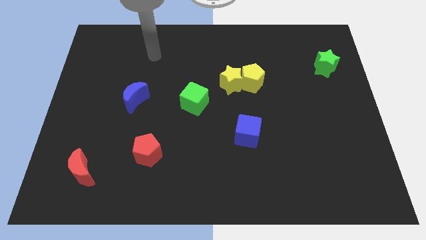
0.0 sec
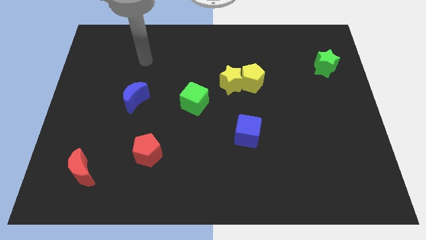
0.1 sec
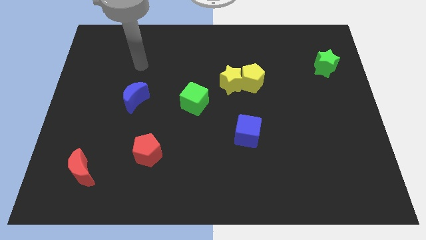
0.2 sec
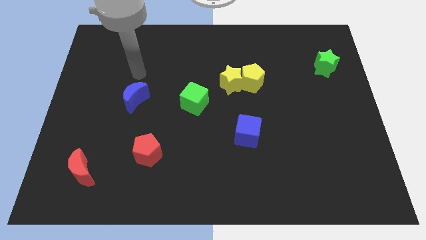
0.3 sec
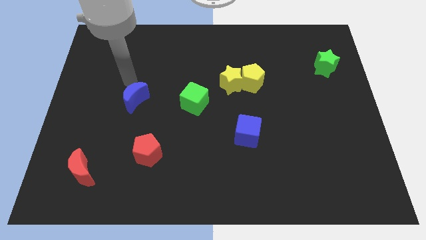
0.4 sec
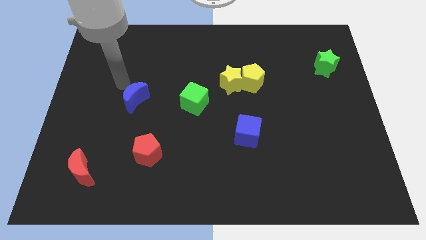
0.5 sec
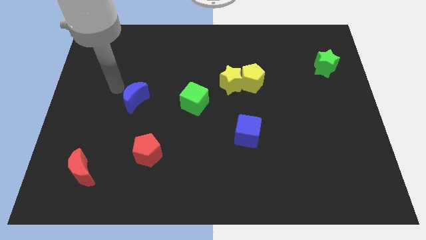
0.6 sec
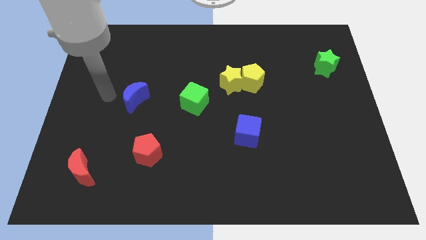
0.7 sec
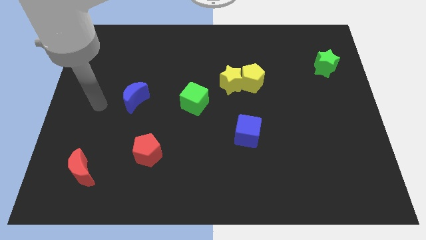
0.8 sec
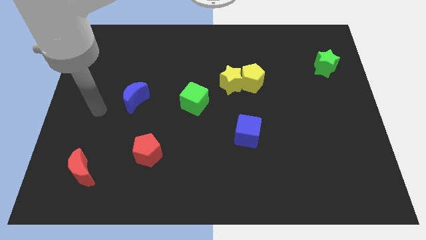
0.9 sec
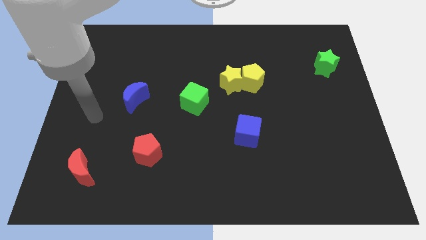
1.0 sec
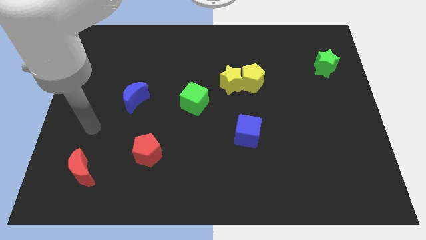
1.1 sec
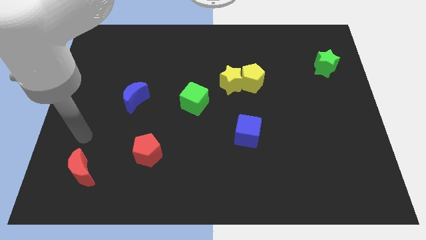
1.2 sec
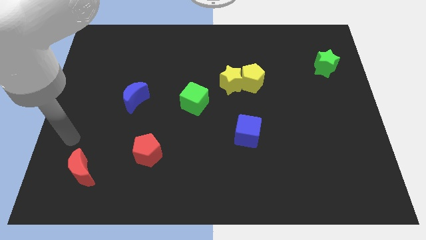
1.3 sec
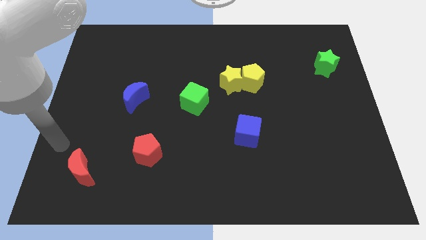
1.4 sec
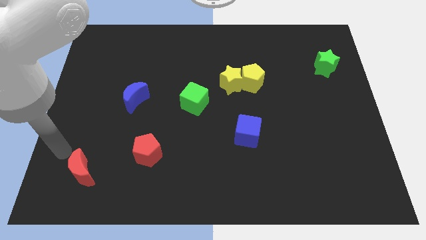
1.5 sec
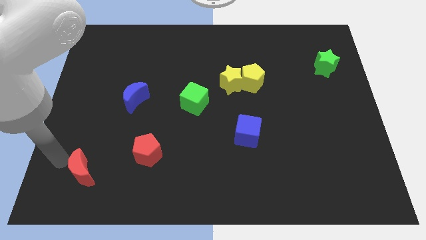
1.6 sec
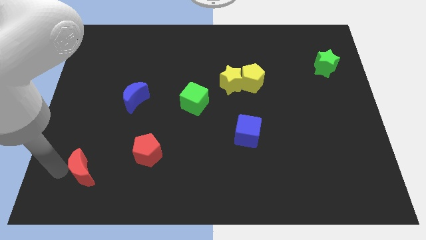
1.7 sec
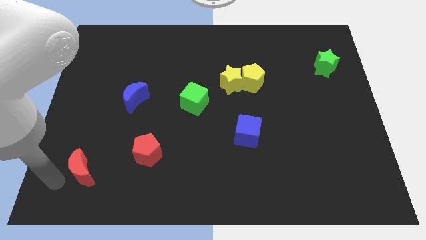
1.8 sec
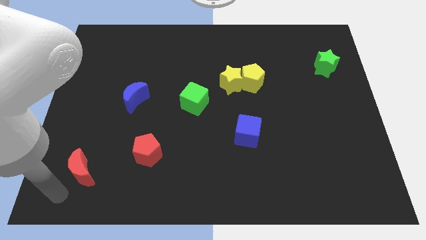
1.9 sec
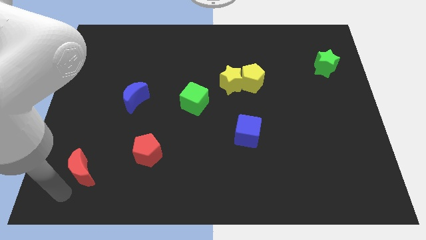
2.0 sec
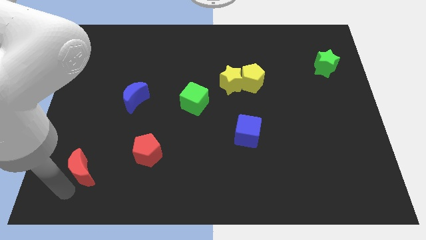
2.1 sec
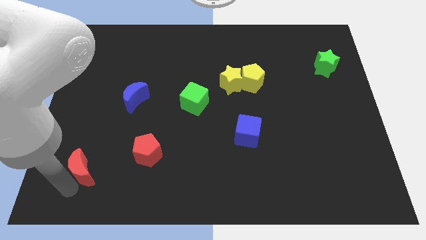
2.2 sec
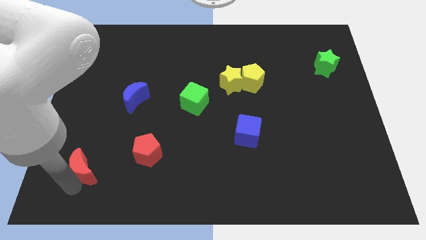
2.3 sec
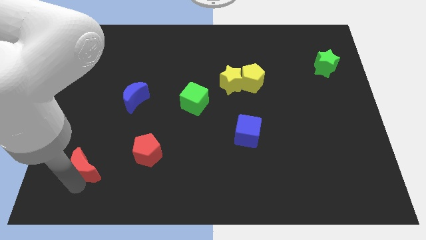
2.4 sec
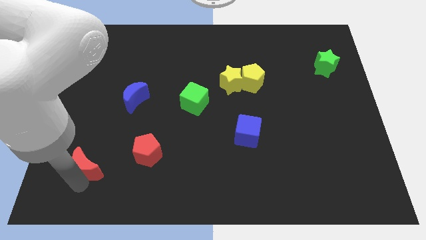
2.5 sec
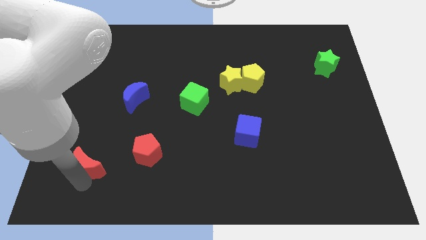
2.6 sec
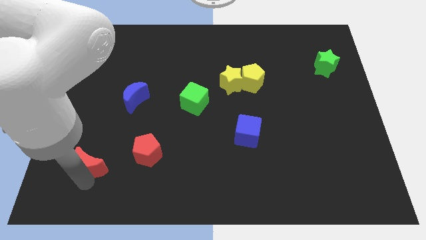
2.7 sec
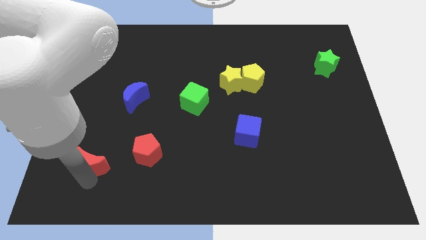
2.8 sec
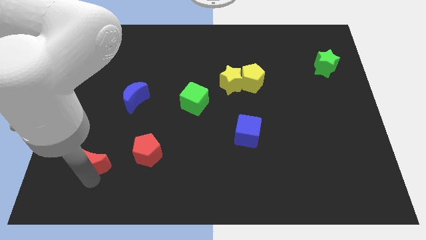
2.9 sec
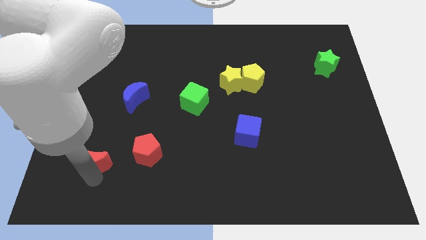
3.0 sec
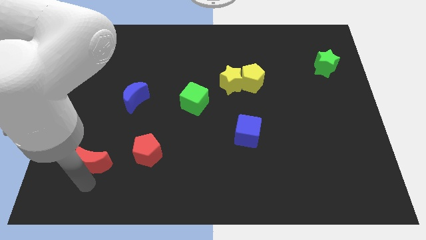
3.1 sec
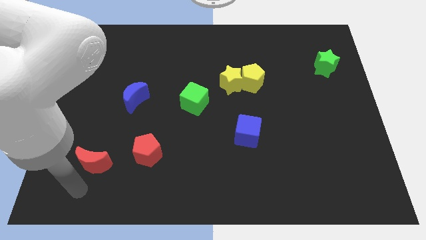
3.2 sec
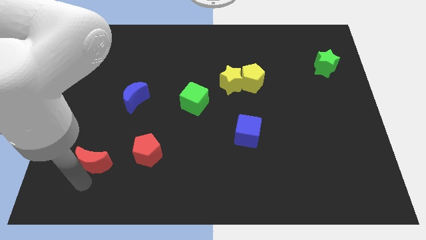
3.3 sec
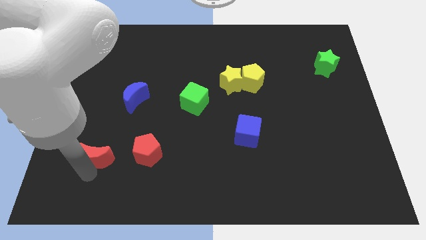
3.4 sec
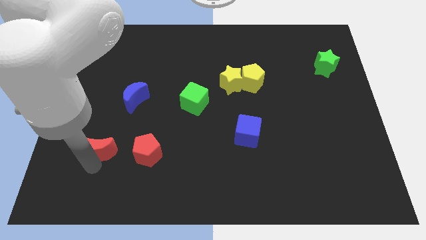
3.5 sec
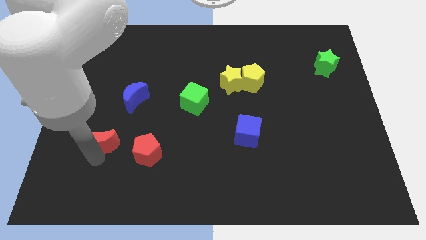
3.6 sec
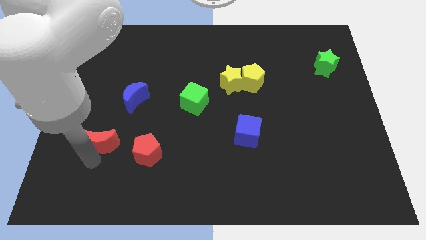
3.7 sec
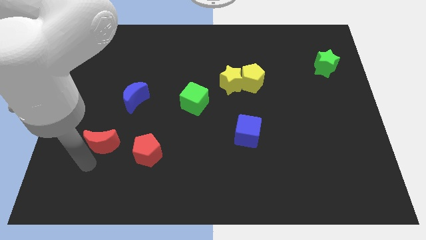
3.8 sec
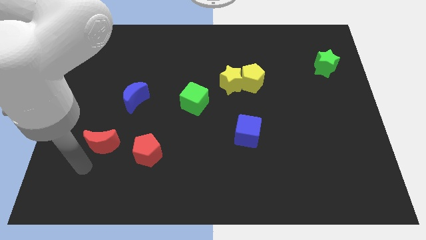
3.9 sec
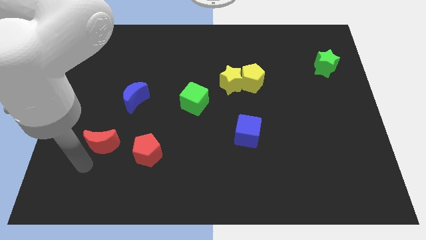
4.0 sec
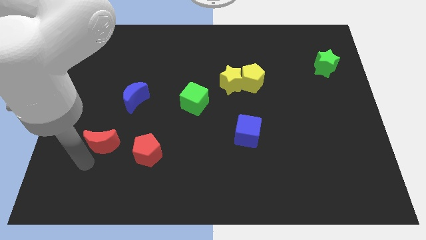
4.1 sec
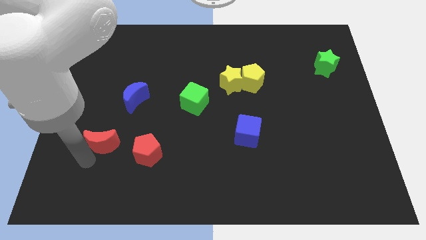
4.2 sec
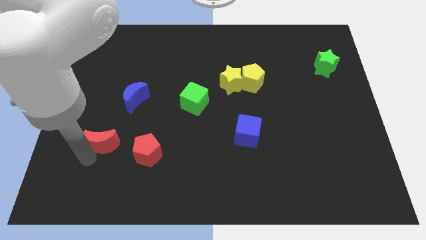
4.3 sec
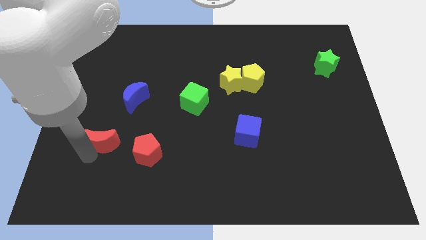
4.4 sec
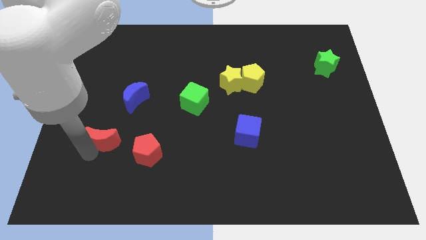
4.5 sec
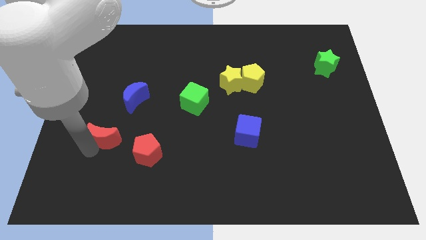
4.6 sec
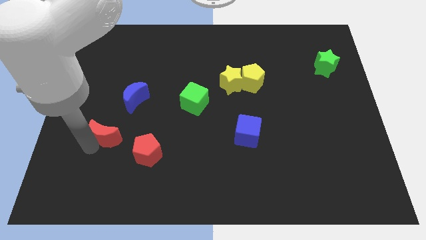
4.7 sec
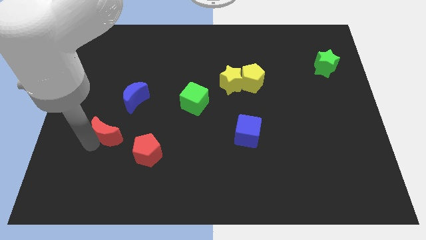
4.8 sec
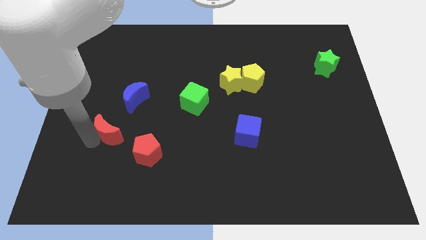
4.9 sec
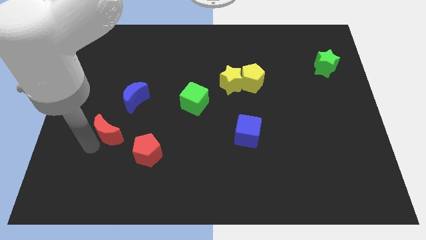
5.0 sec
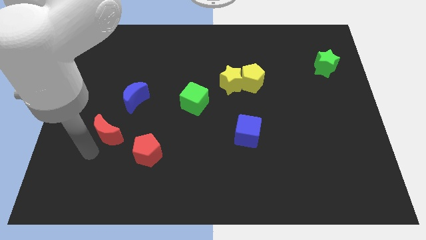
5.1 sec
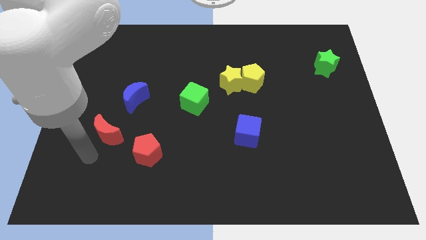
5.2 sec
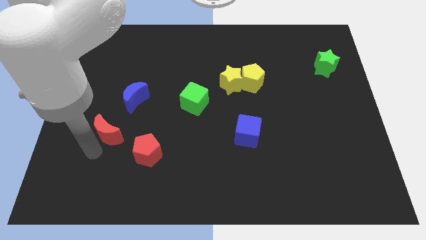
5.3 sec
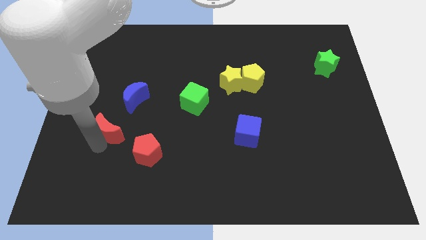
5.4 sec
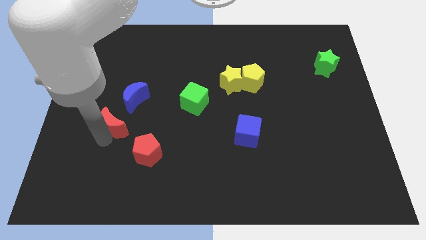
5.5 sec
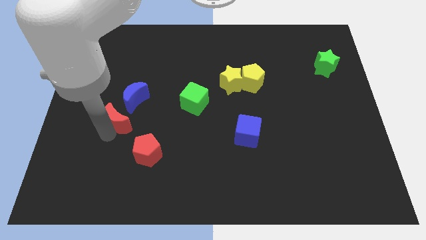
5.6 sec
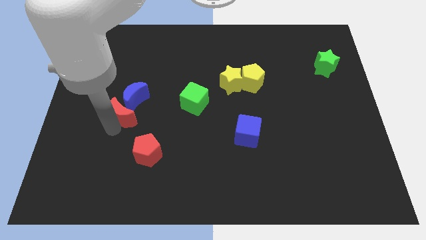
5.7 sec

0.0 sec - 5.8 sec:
push the red moon to the blue moon

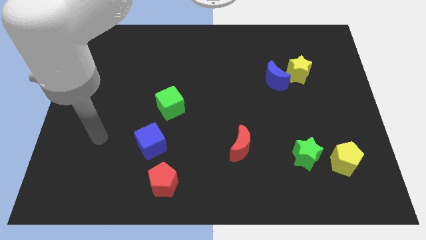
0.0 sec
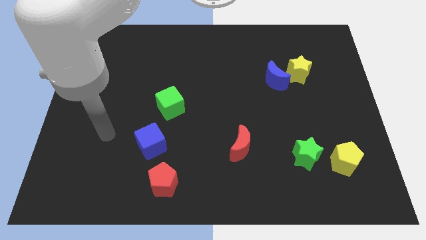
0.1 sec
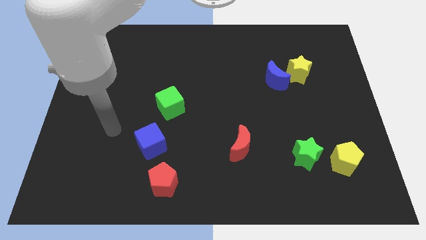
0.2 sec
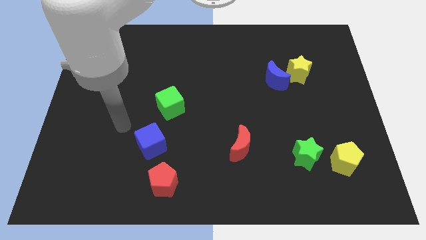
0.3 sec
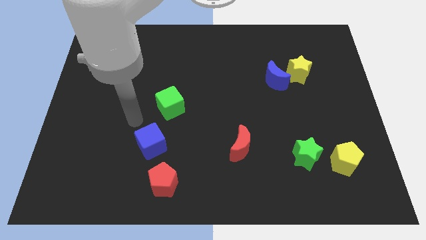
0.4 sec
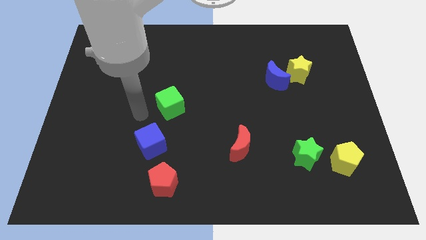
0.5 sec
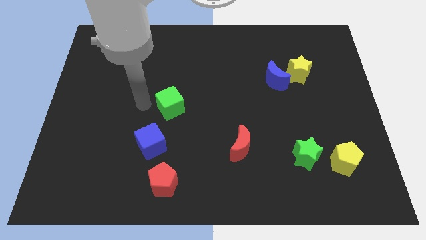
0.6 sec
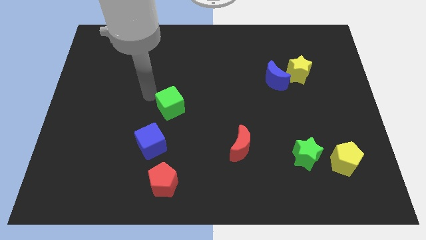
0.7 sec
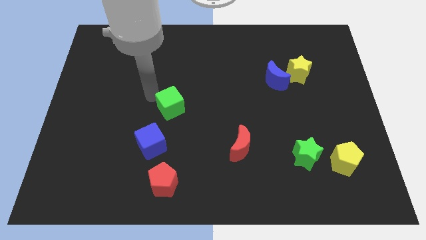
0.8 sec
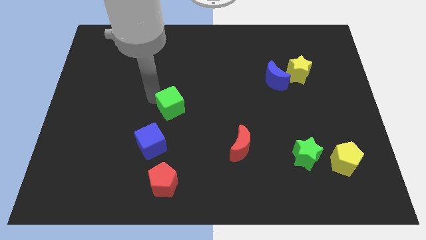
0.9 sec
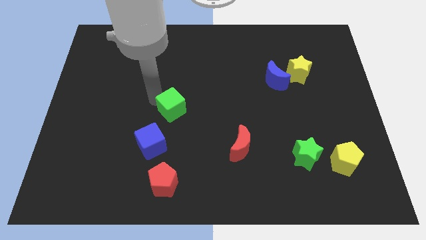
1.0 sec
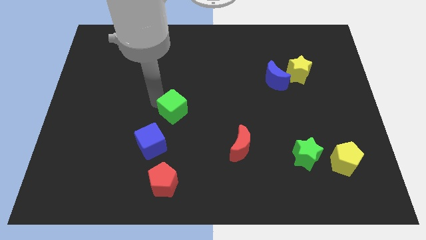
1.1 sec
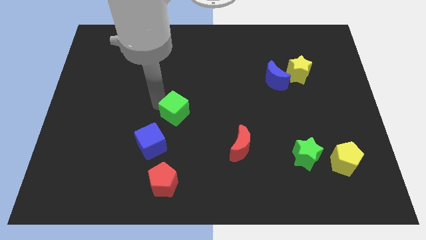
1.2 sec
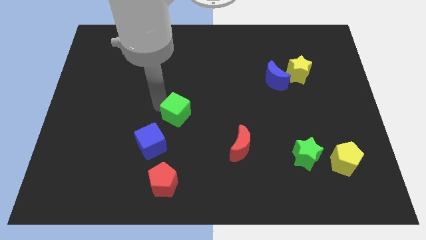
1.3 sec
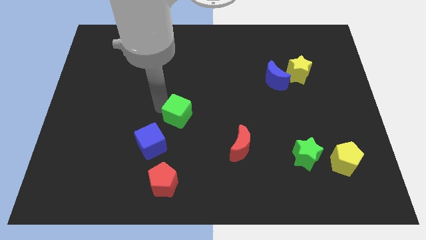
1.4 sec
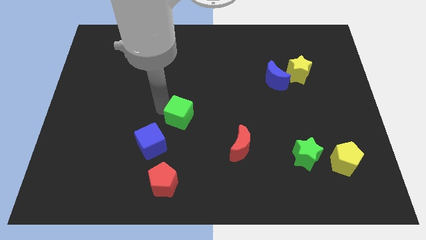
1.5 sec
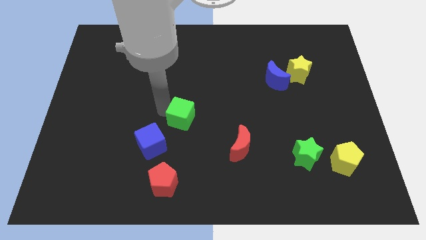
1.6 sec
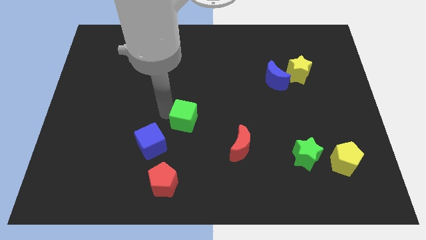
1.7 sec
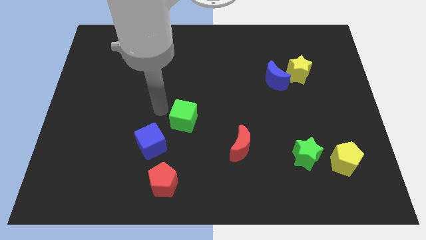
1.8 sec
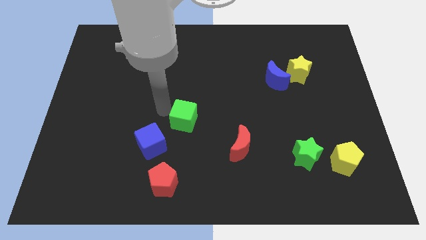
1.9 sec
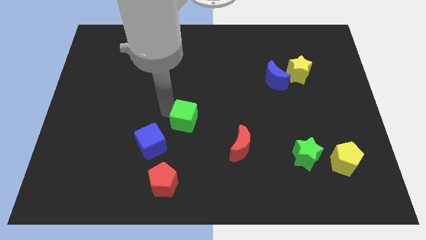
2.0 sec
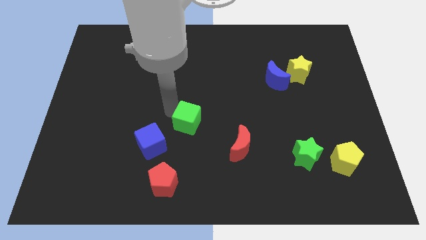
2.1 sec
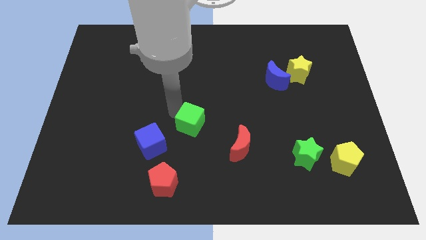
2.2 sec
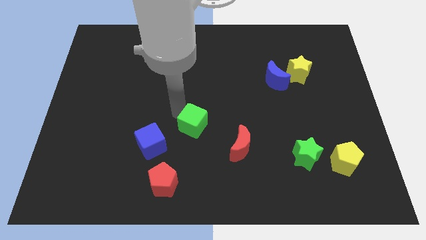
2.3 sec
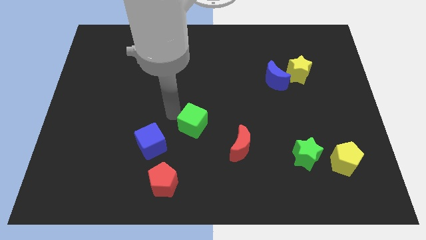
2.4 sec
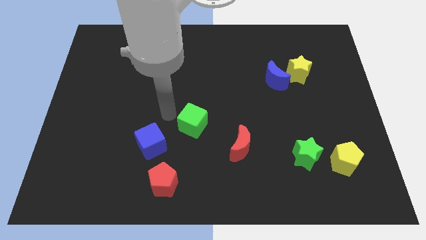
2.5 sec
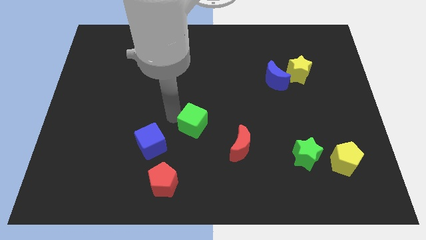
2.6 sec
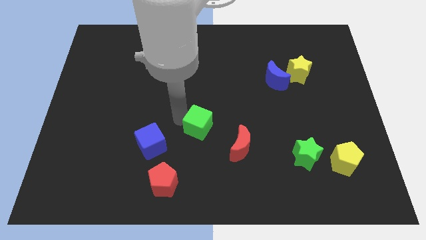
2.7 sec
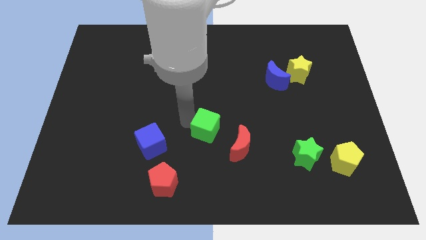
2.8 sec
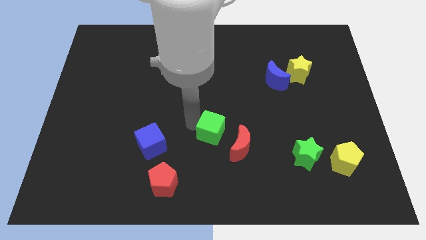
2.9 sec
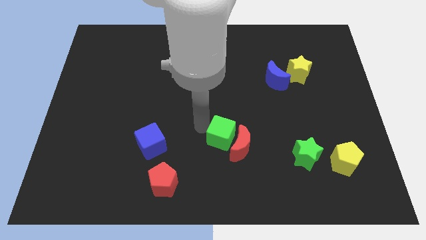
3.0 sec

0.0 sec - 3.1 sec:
move the green cube close to the red moon
